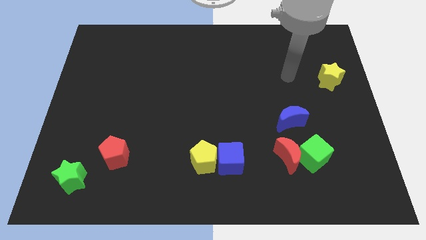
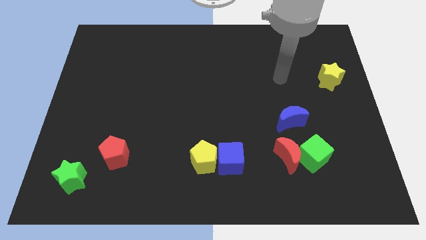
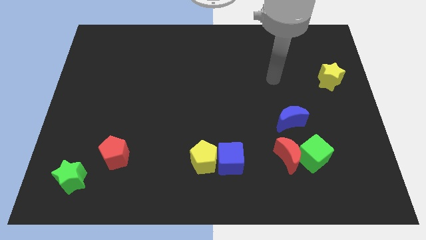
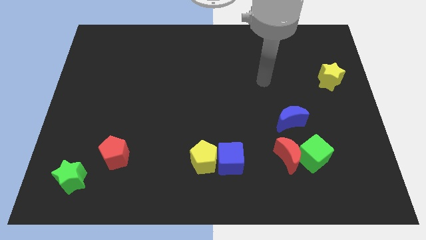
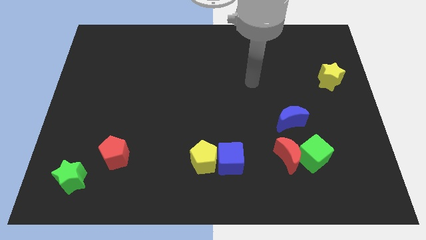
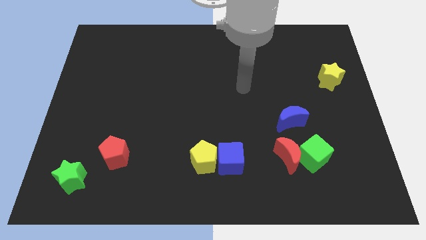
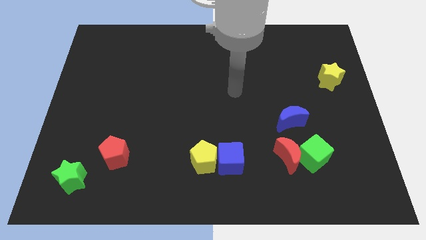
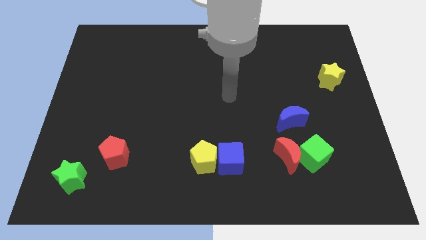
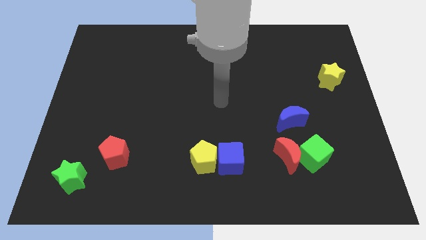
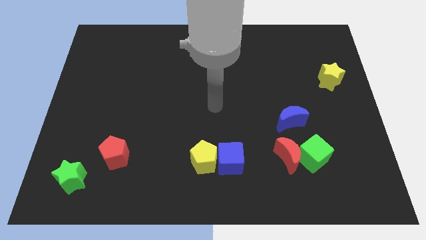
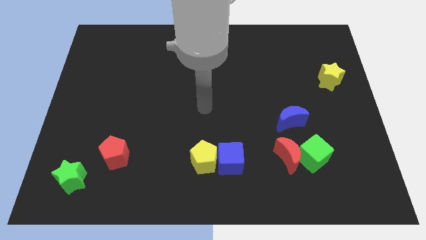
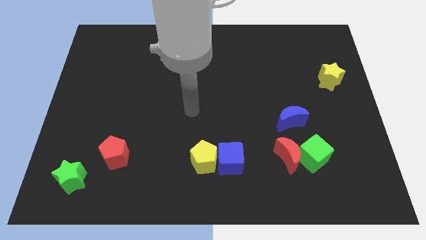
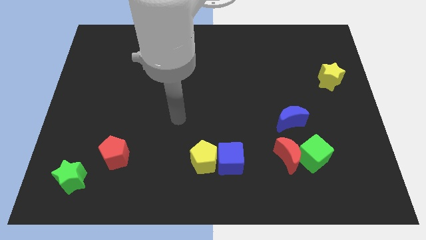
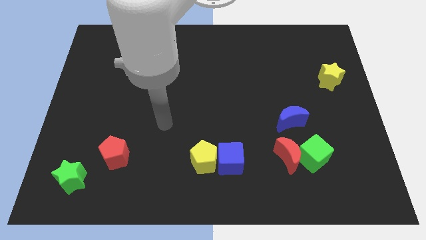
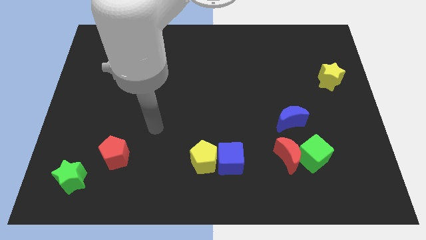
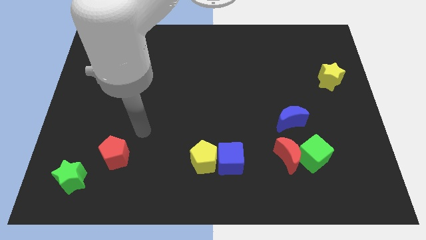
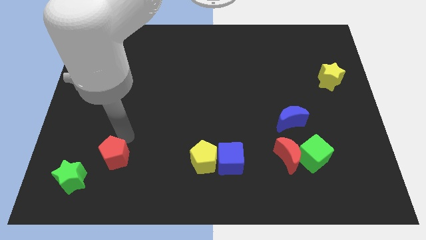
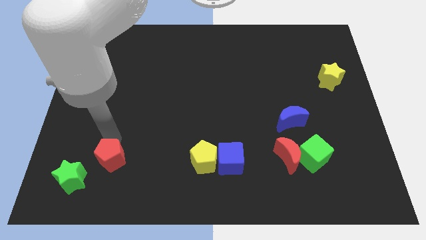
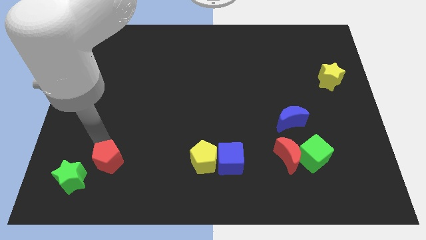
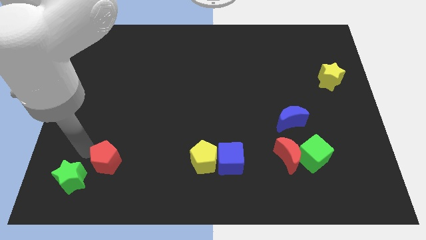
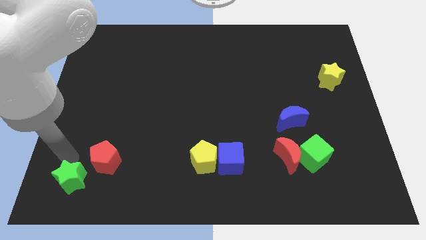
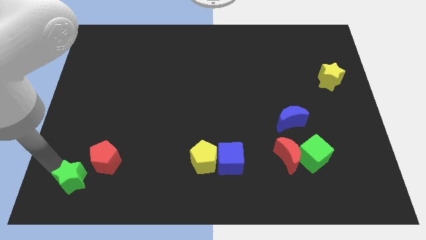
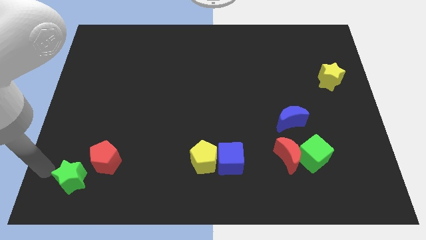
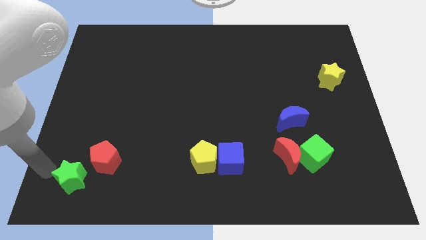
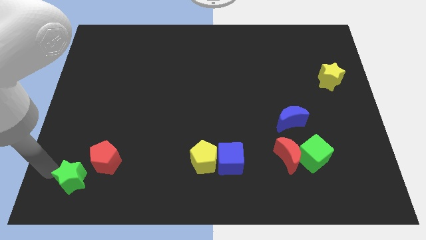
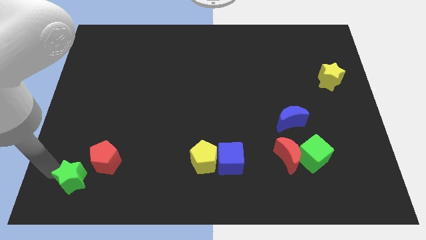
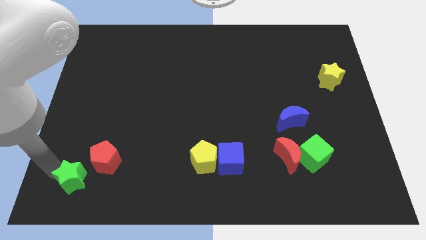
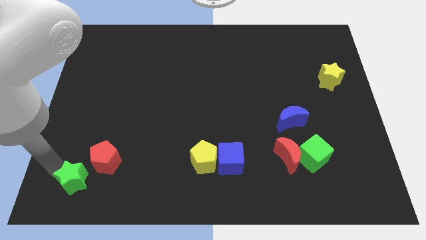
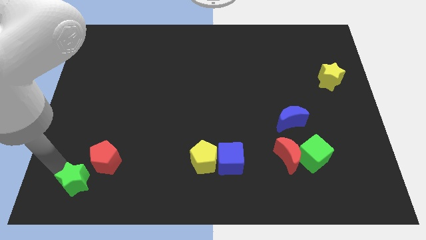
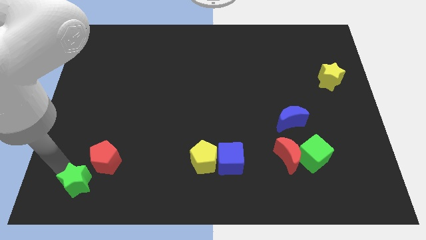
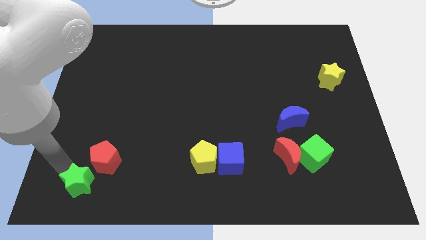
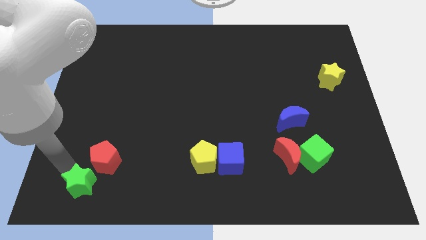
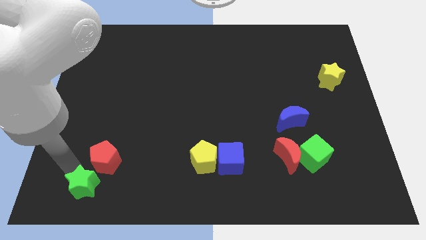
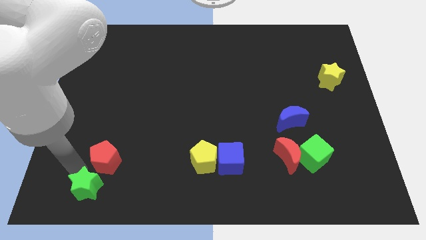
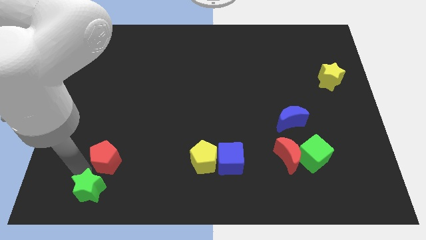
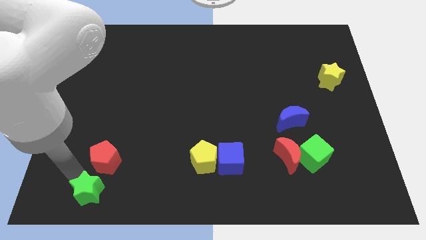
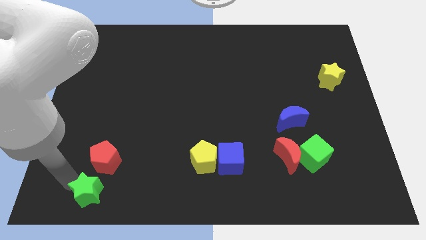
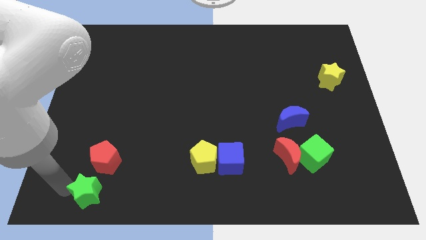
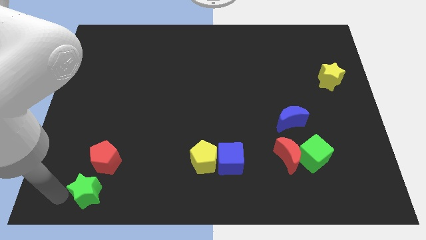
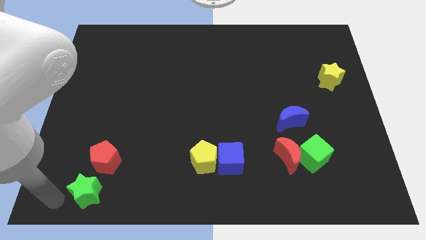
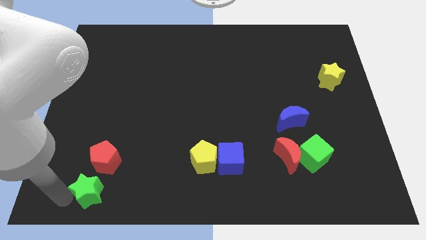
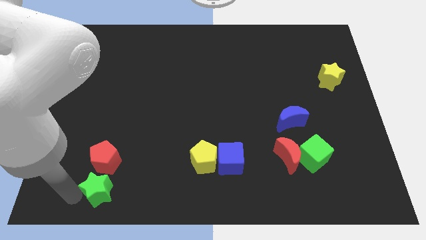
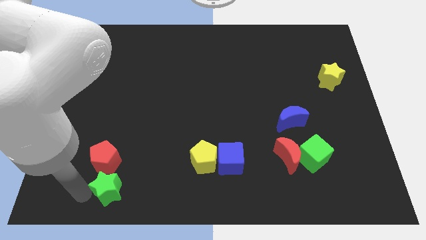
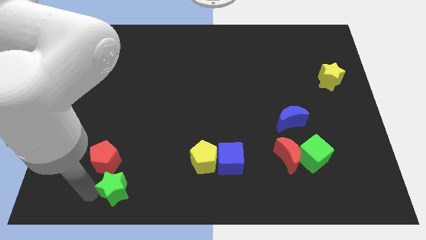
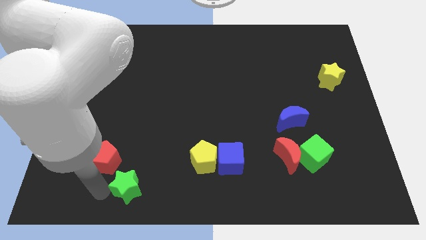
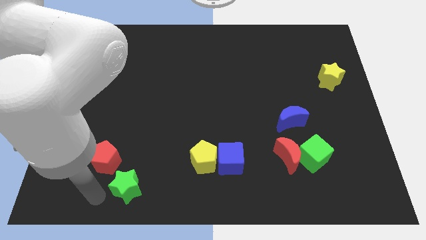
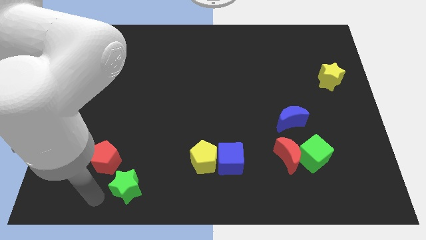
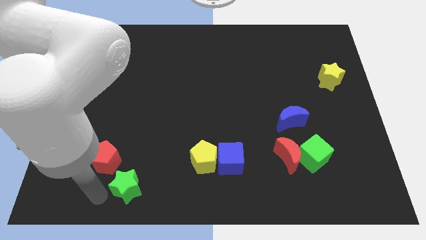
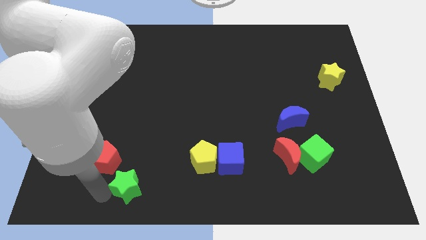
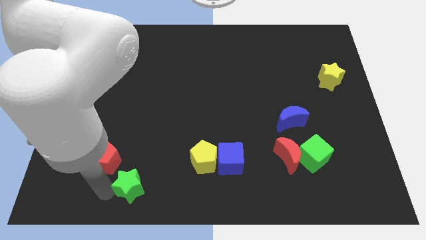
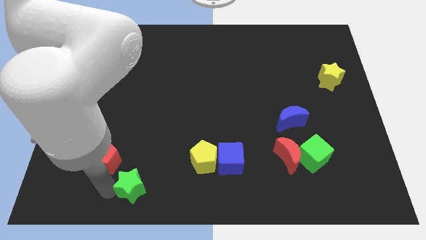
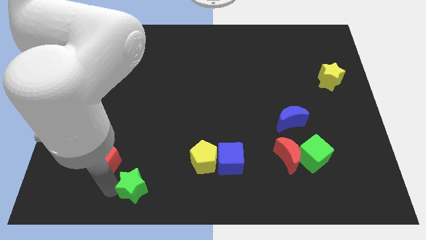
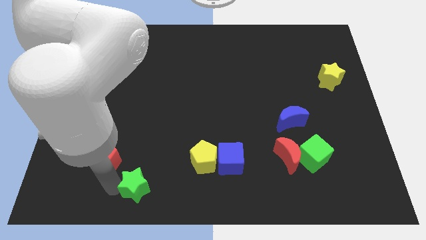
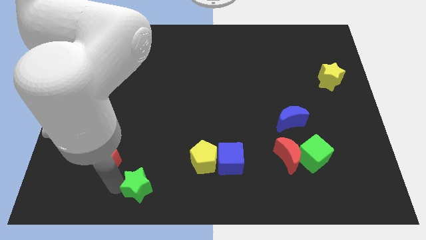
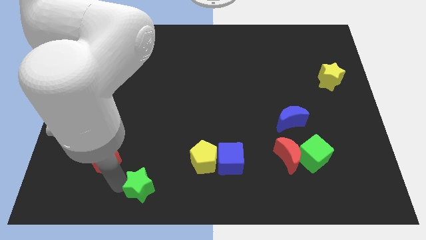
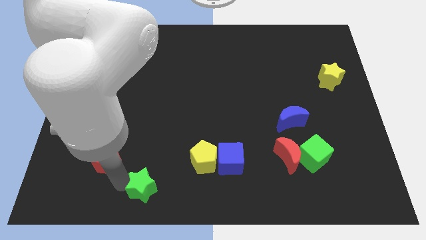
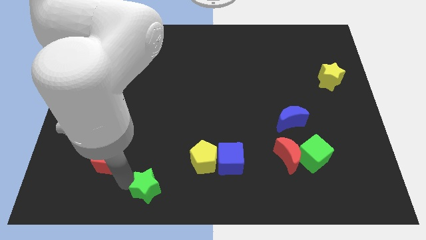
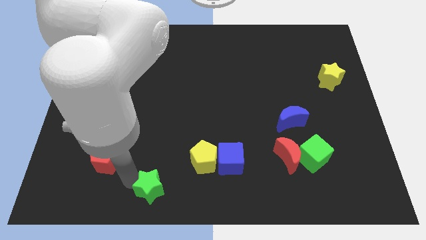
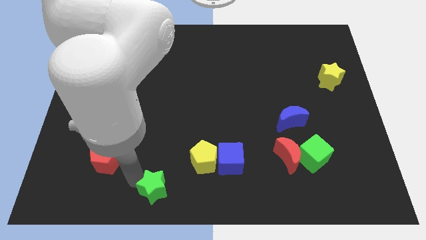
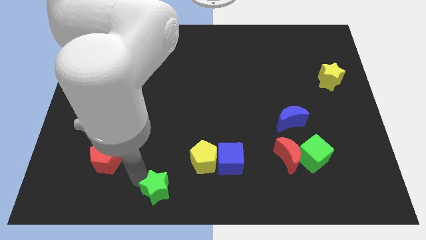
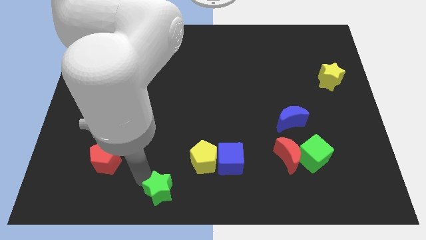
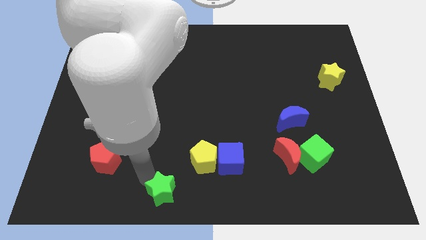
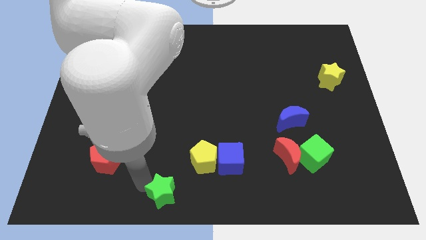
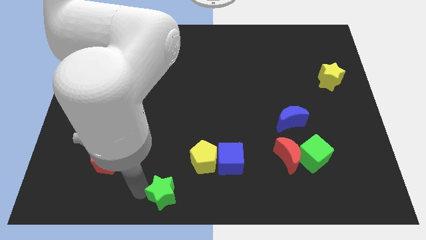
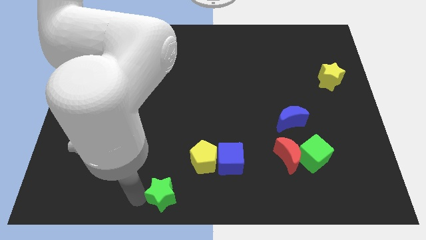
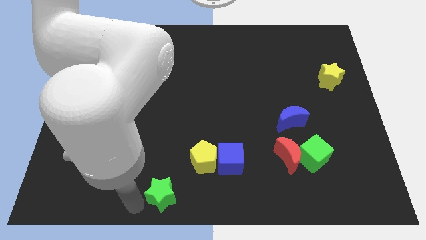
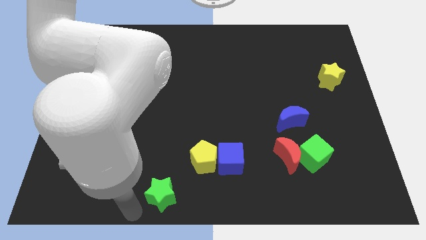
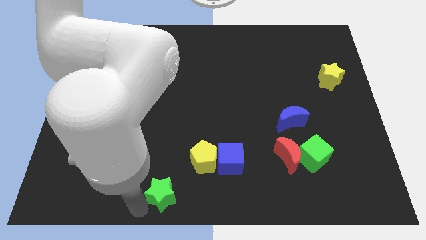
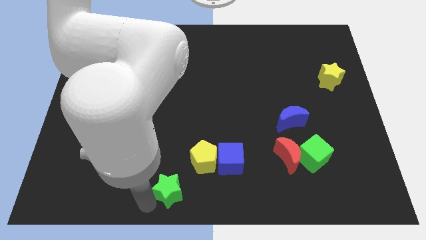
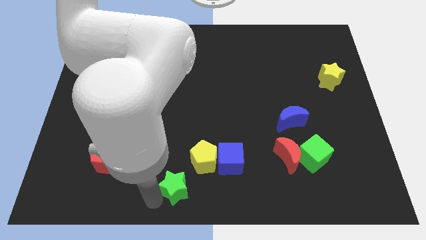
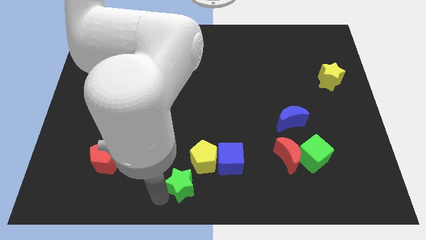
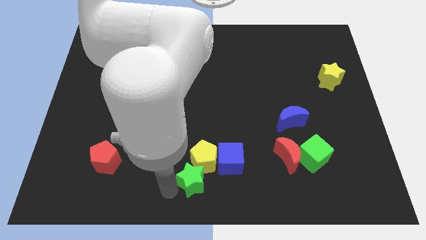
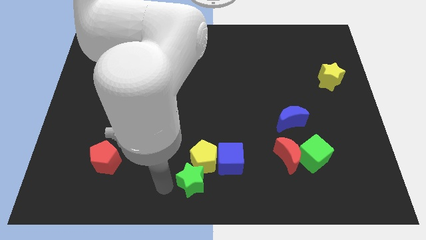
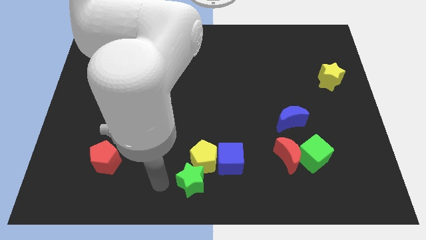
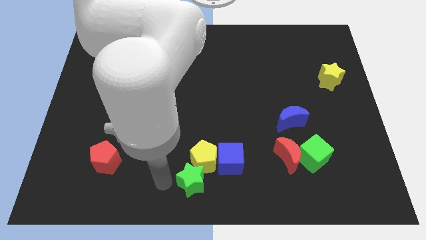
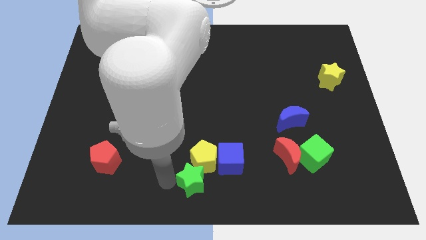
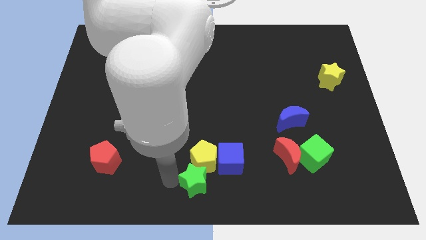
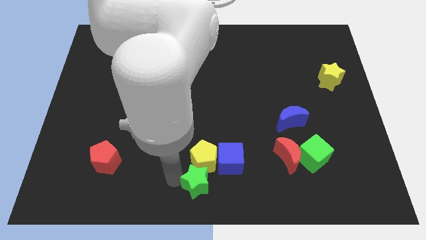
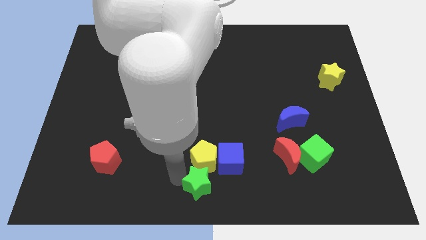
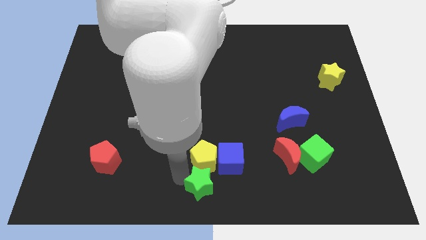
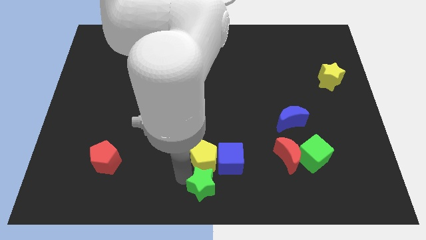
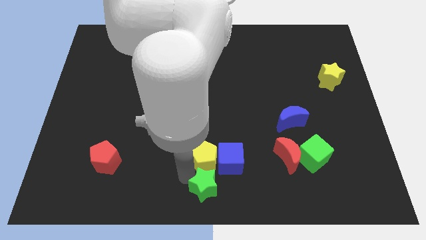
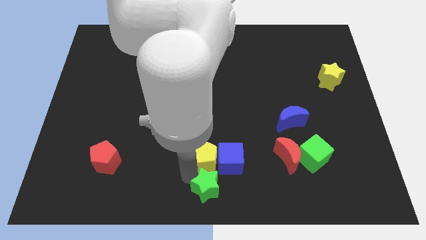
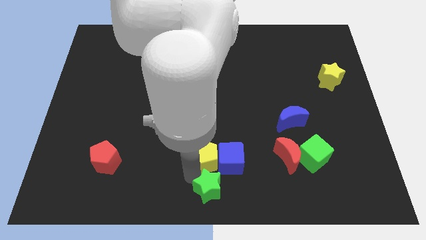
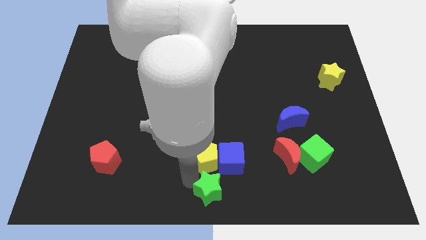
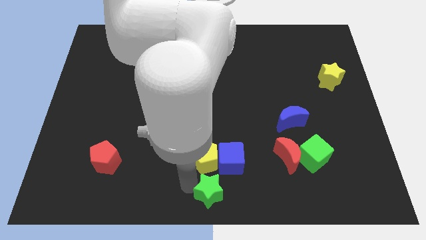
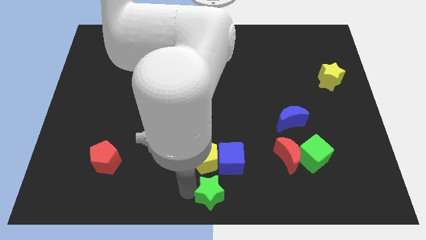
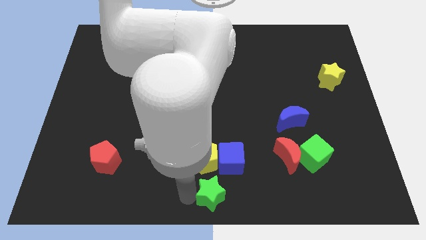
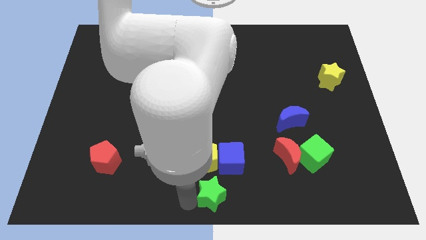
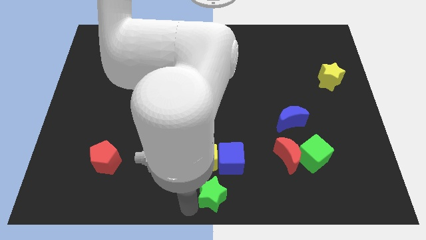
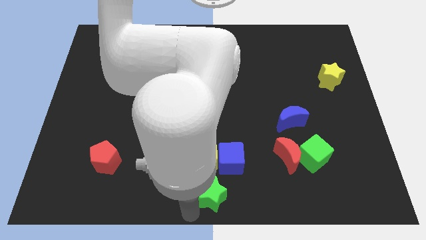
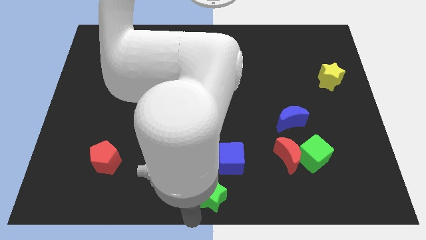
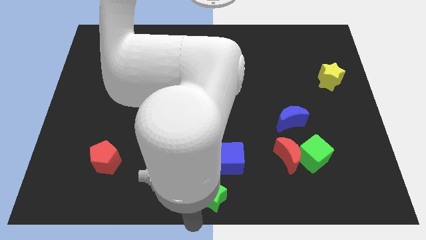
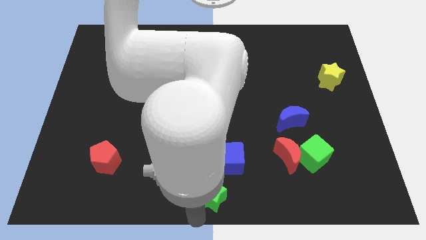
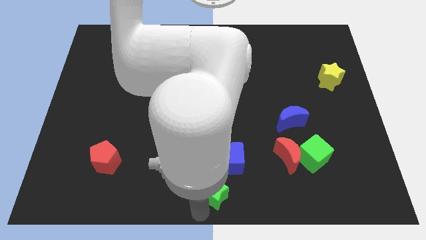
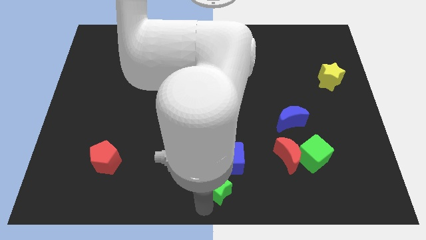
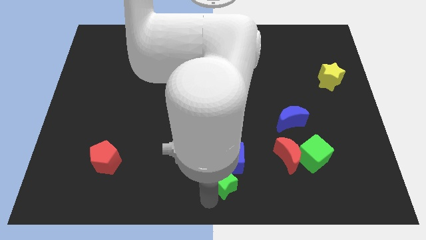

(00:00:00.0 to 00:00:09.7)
slide the green star towards the blue cube
